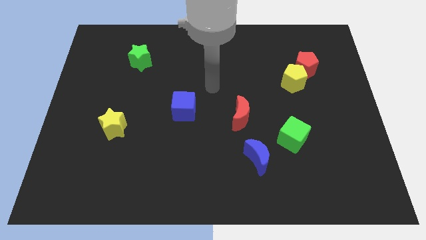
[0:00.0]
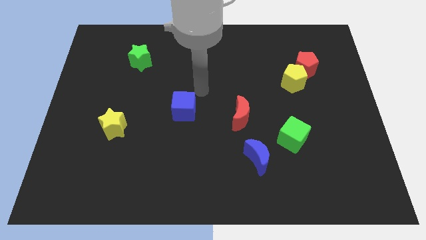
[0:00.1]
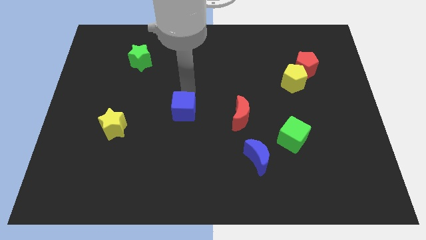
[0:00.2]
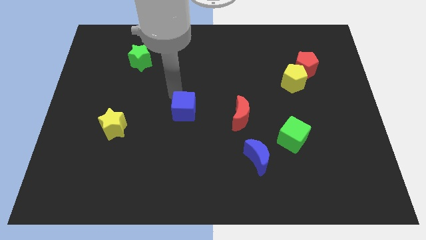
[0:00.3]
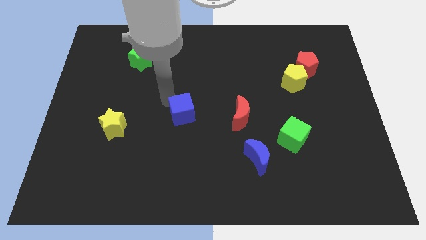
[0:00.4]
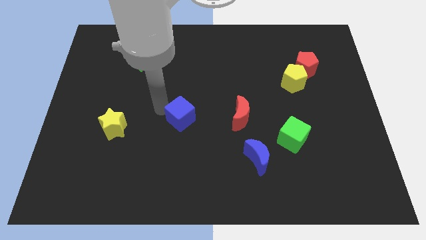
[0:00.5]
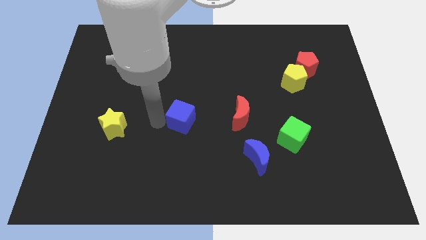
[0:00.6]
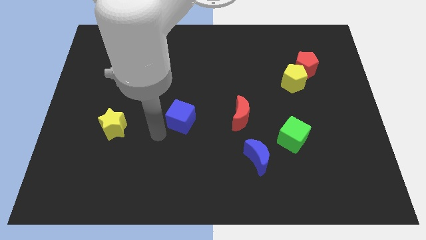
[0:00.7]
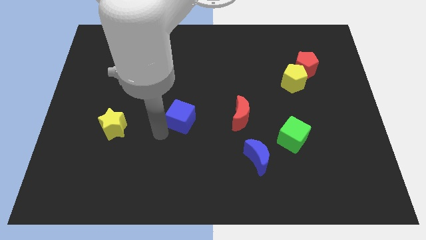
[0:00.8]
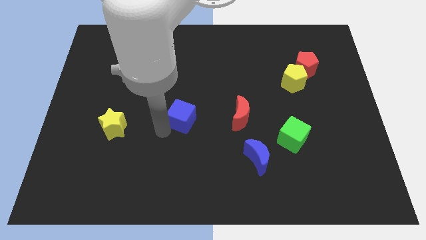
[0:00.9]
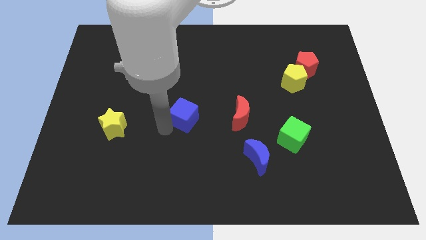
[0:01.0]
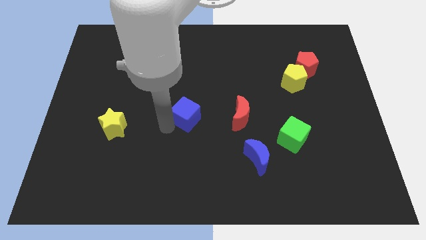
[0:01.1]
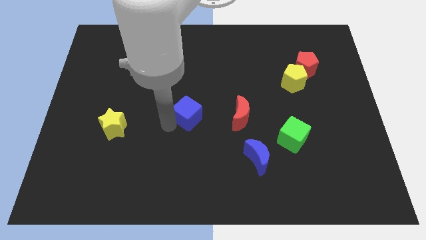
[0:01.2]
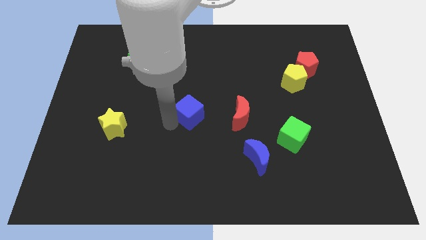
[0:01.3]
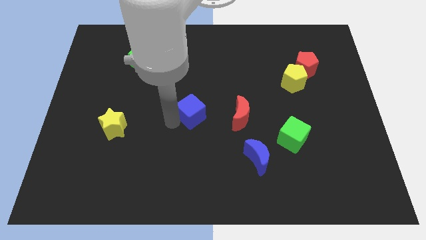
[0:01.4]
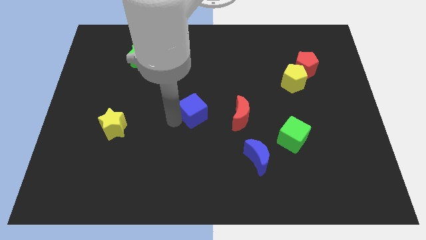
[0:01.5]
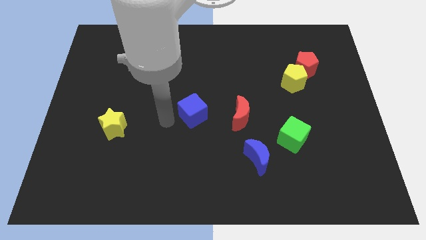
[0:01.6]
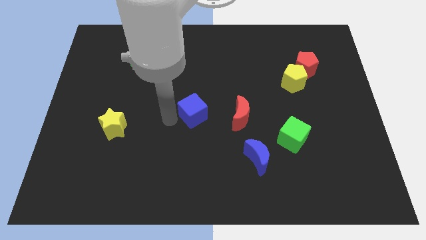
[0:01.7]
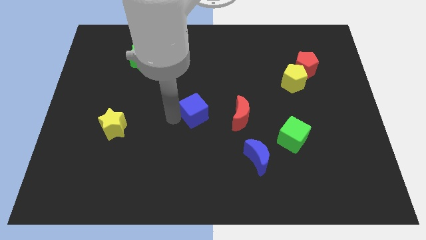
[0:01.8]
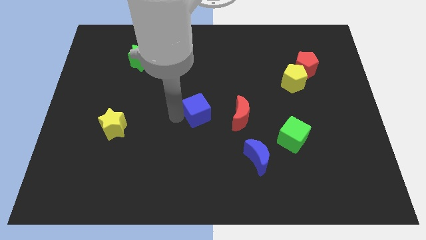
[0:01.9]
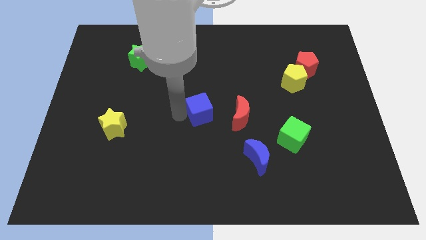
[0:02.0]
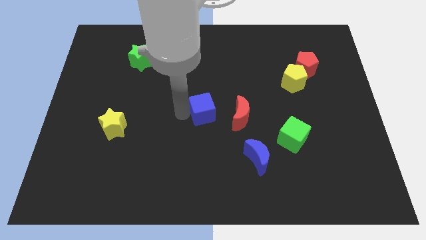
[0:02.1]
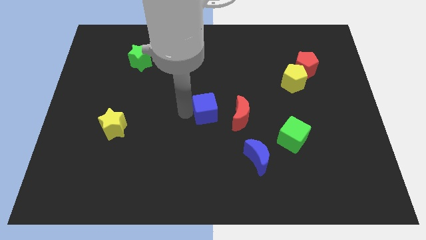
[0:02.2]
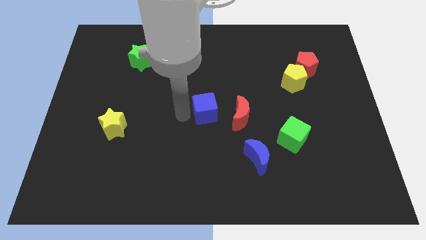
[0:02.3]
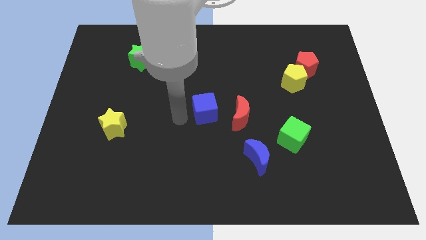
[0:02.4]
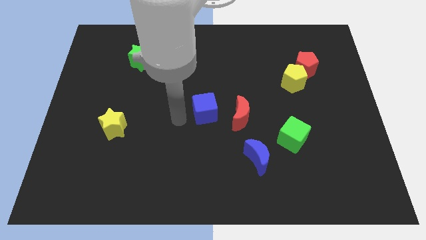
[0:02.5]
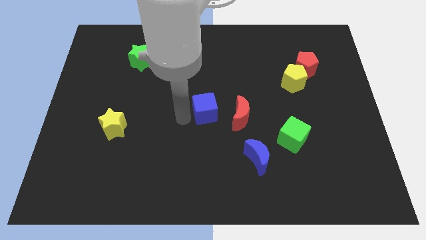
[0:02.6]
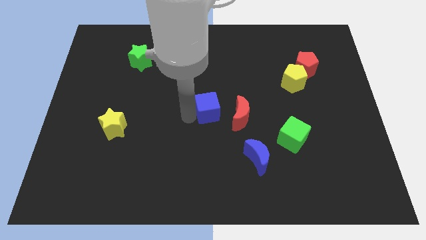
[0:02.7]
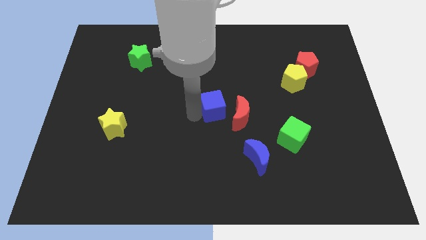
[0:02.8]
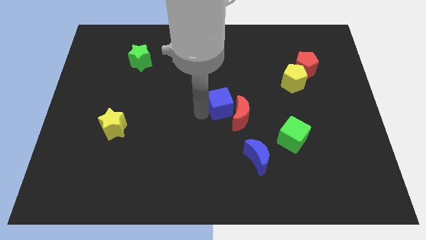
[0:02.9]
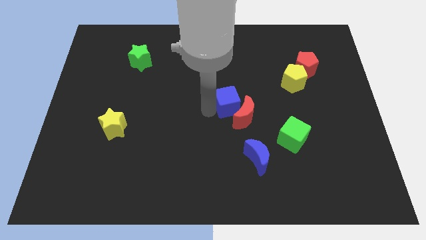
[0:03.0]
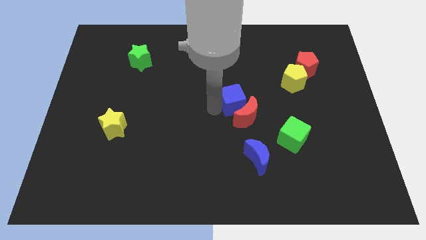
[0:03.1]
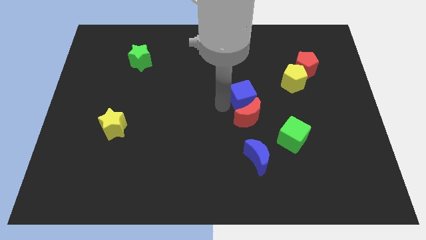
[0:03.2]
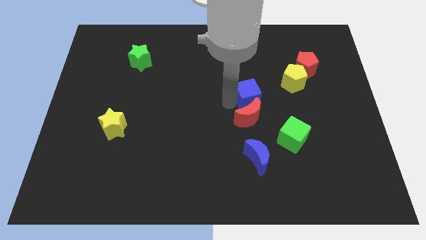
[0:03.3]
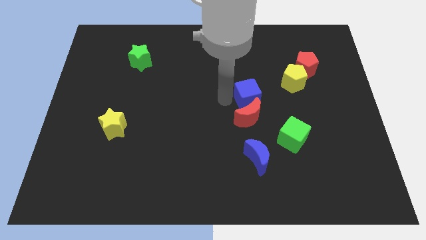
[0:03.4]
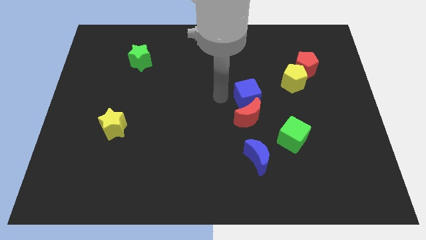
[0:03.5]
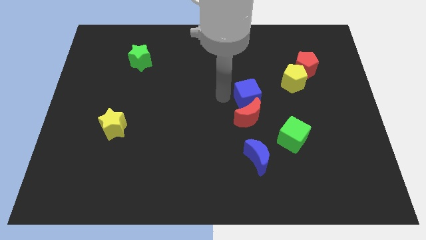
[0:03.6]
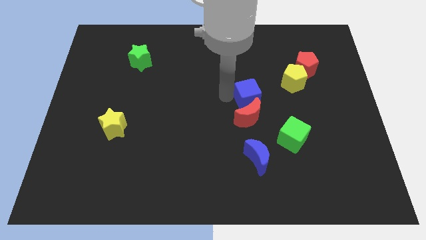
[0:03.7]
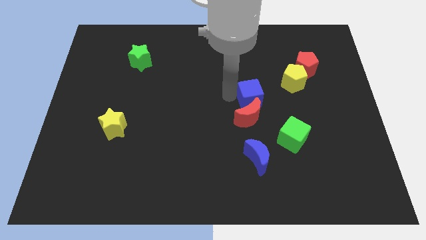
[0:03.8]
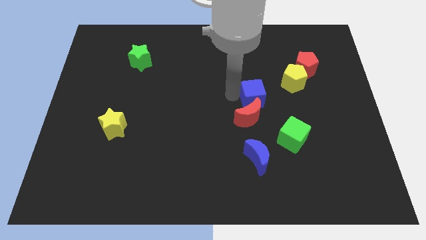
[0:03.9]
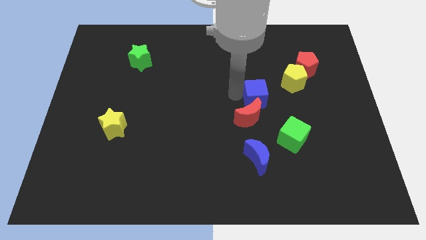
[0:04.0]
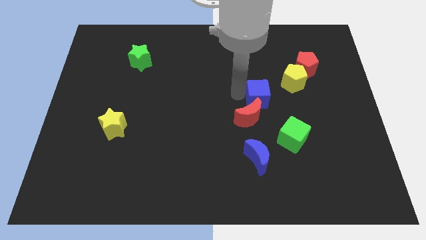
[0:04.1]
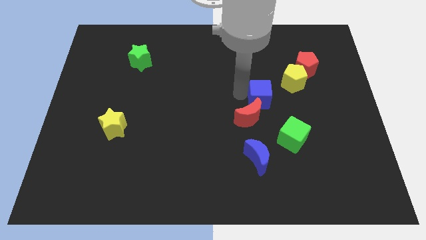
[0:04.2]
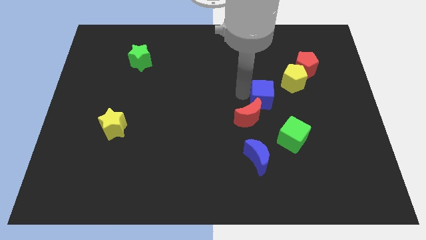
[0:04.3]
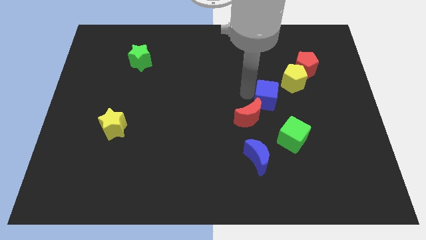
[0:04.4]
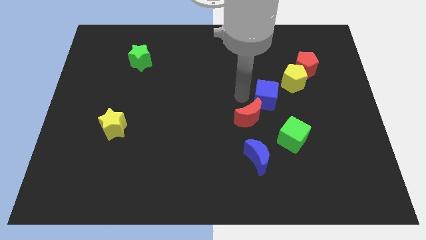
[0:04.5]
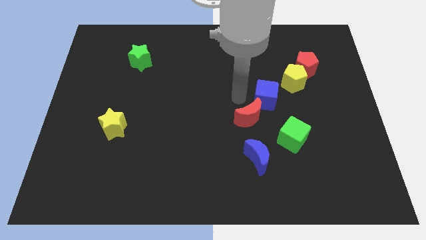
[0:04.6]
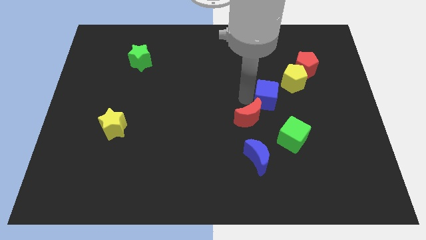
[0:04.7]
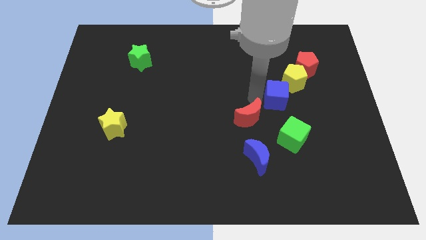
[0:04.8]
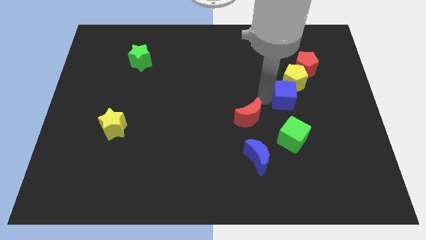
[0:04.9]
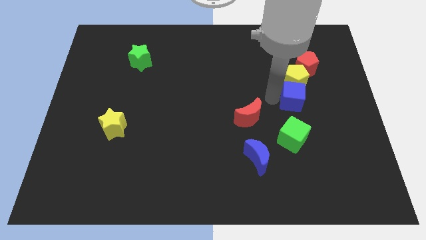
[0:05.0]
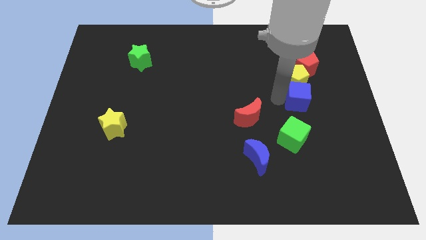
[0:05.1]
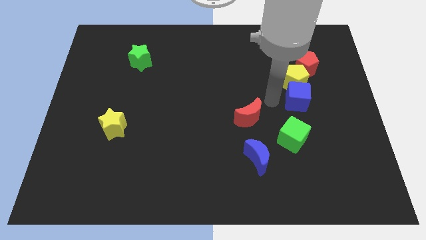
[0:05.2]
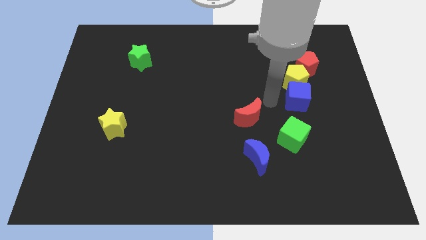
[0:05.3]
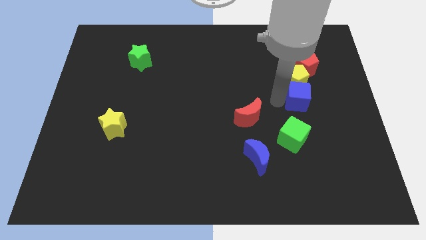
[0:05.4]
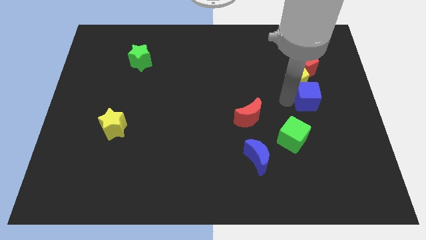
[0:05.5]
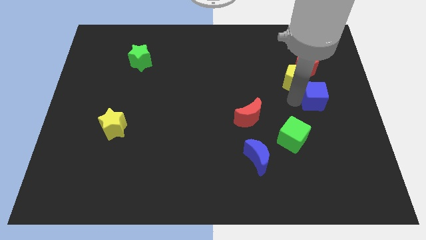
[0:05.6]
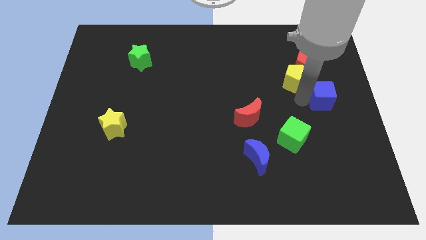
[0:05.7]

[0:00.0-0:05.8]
push the blue cube to the center right

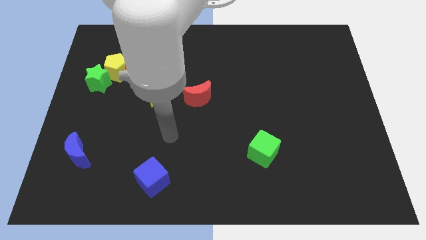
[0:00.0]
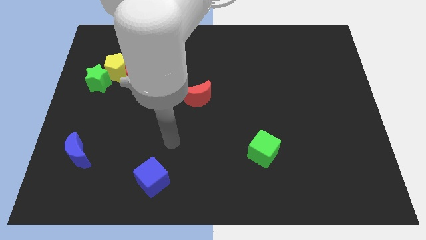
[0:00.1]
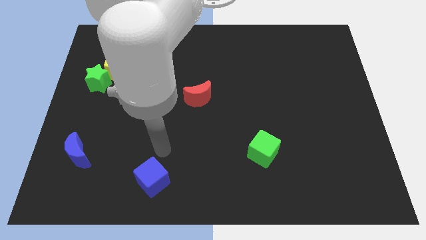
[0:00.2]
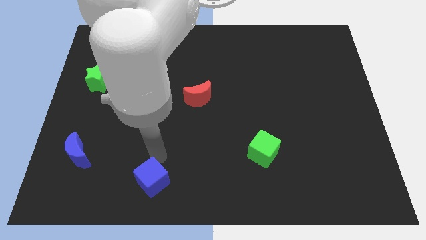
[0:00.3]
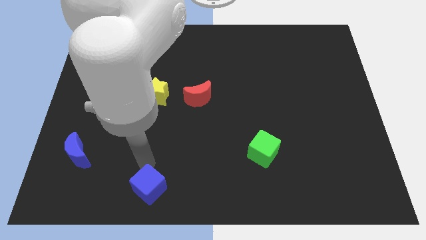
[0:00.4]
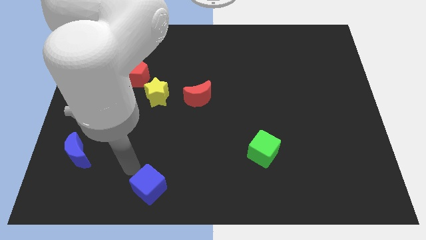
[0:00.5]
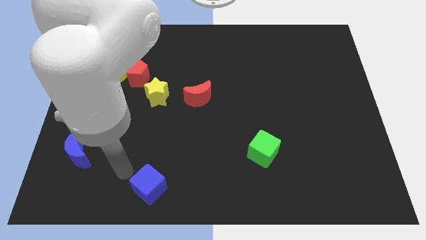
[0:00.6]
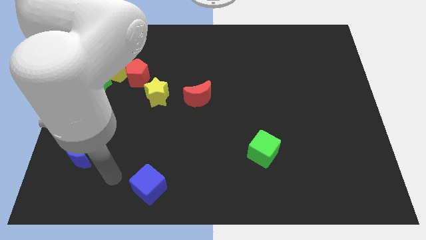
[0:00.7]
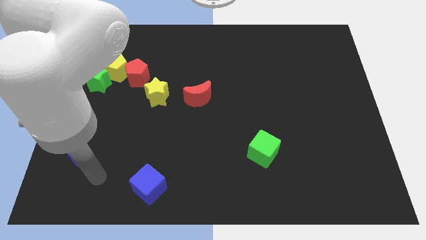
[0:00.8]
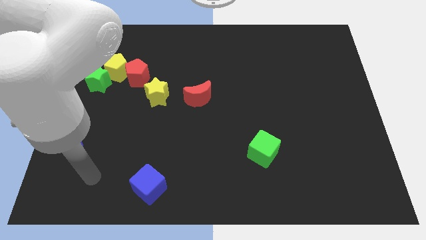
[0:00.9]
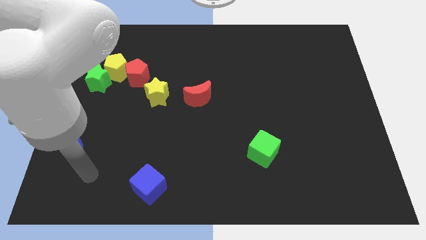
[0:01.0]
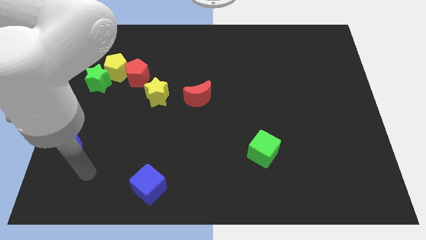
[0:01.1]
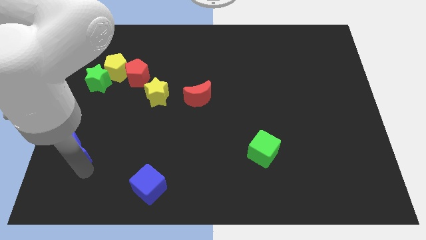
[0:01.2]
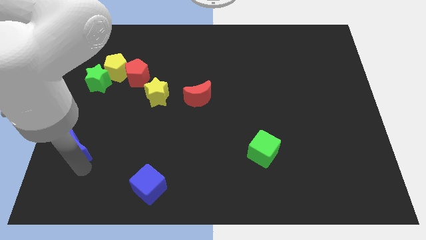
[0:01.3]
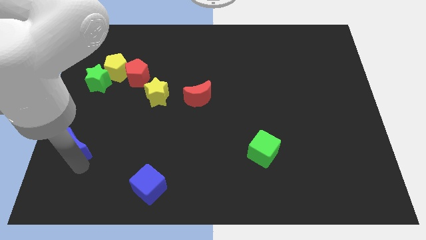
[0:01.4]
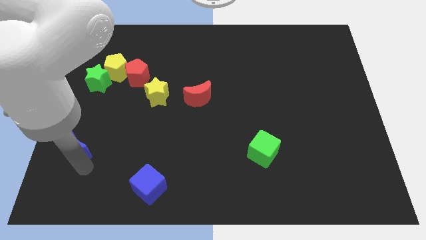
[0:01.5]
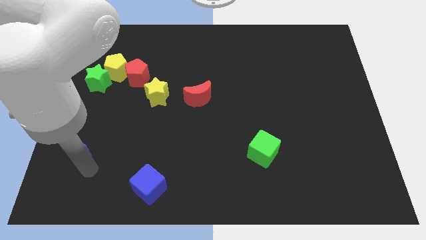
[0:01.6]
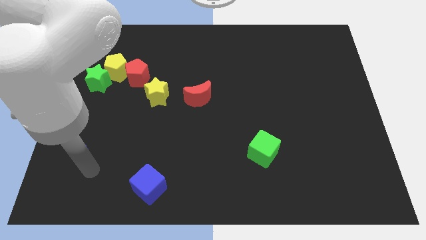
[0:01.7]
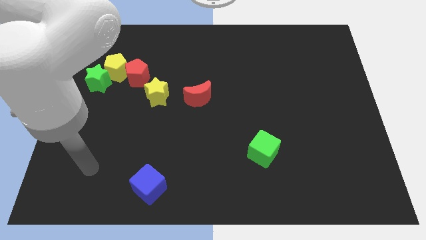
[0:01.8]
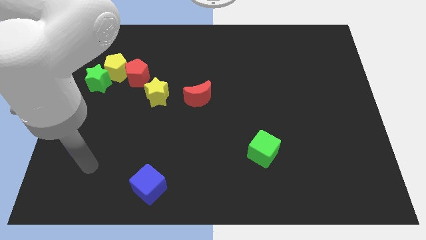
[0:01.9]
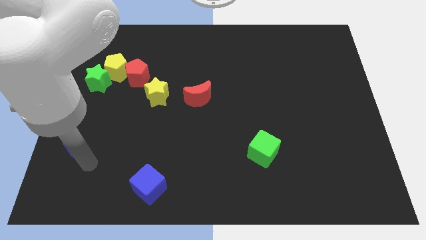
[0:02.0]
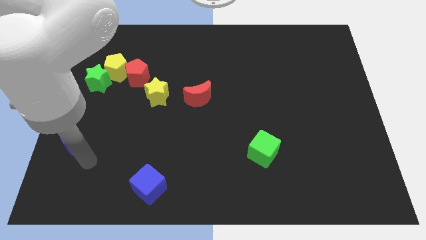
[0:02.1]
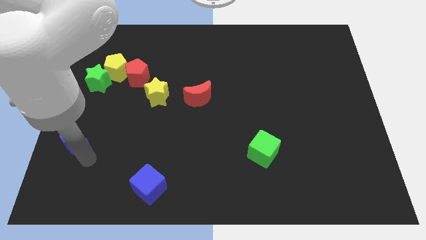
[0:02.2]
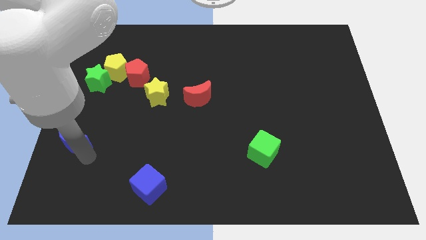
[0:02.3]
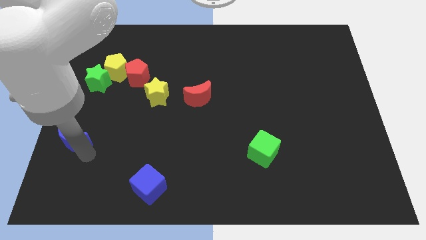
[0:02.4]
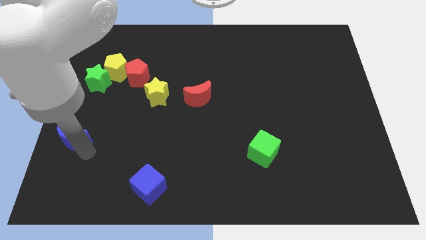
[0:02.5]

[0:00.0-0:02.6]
move the blue moon to the left side of the board
